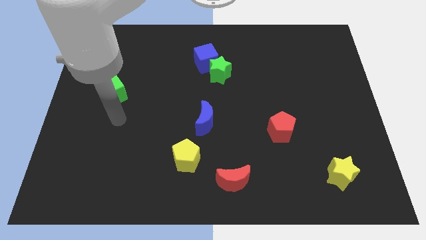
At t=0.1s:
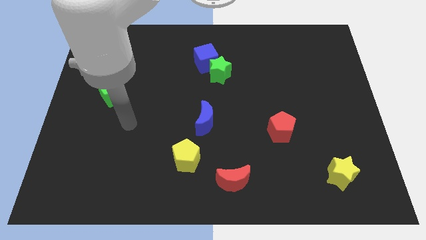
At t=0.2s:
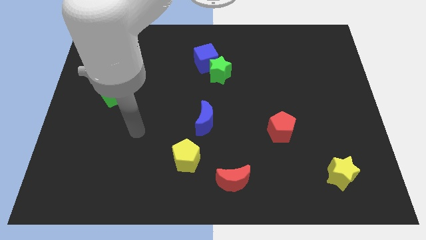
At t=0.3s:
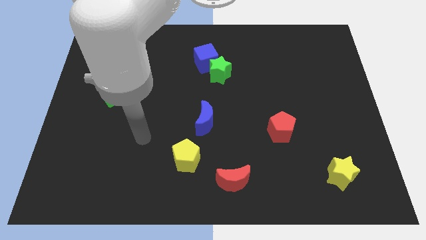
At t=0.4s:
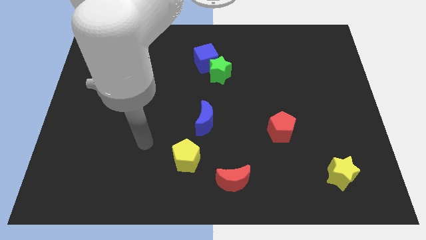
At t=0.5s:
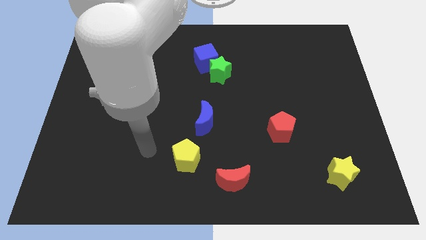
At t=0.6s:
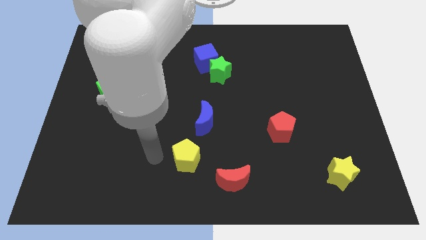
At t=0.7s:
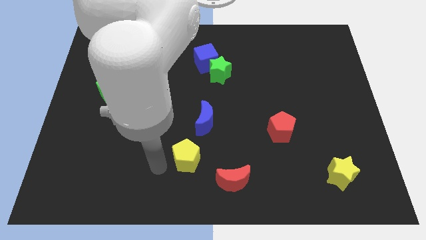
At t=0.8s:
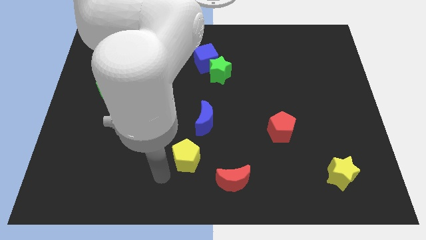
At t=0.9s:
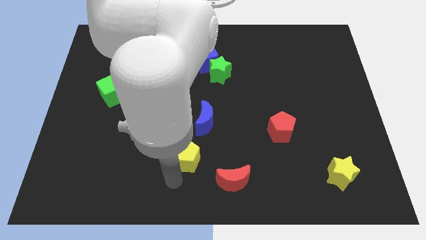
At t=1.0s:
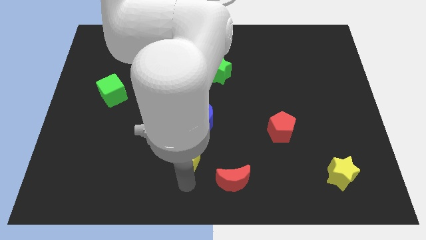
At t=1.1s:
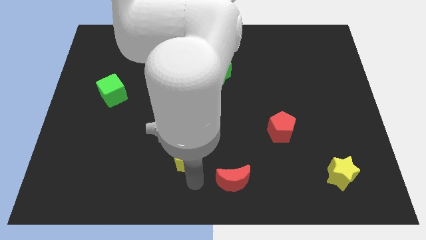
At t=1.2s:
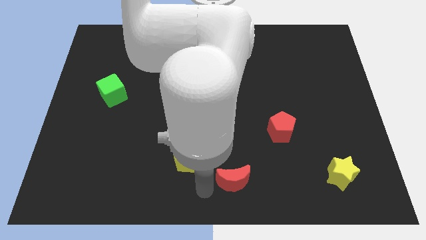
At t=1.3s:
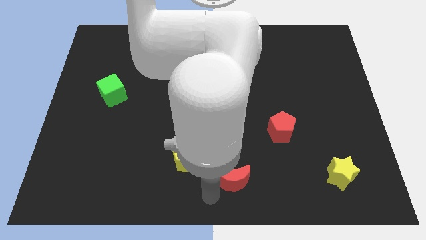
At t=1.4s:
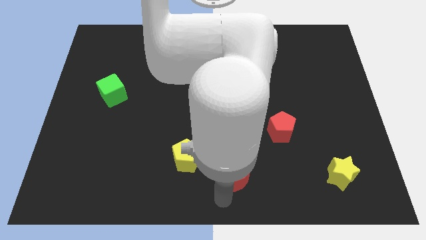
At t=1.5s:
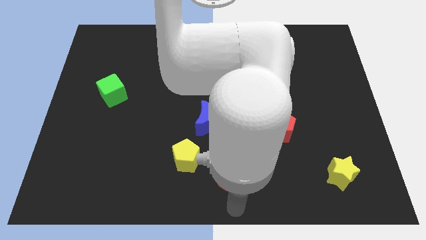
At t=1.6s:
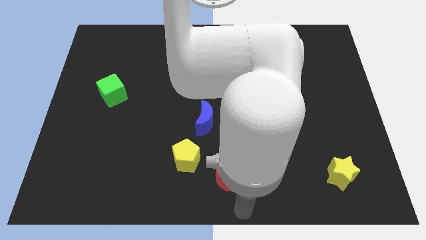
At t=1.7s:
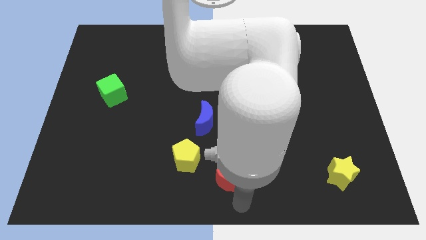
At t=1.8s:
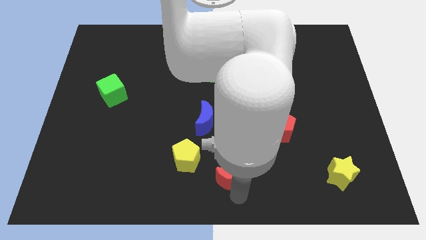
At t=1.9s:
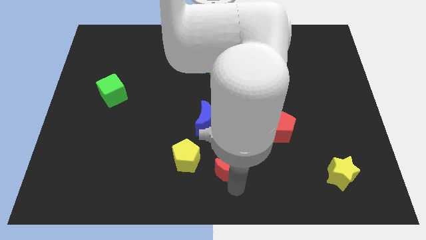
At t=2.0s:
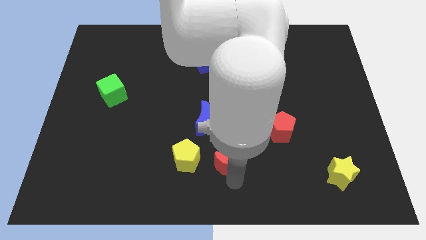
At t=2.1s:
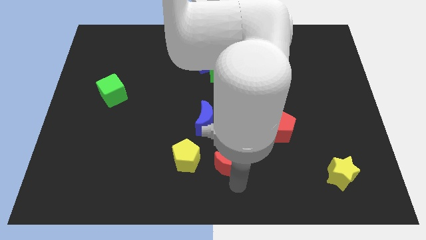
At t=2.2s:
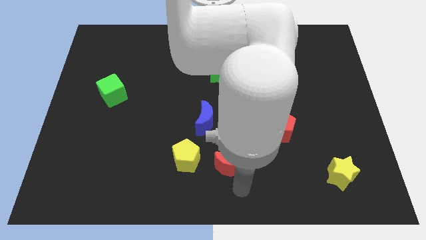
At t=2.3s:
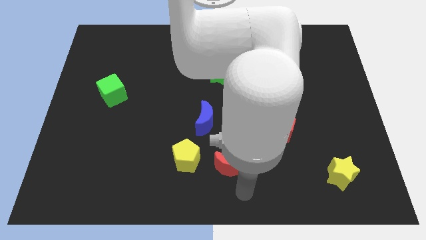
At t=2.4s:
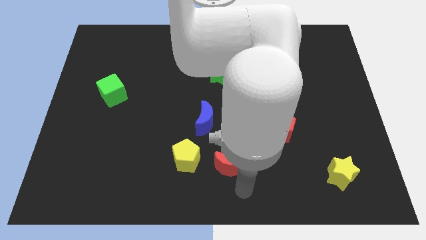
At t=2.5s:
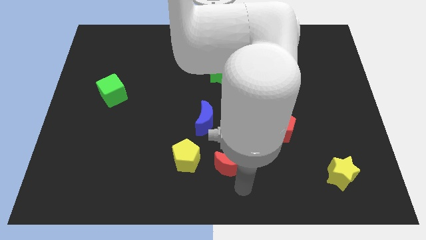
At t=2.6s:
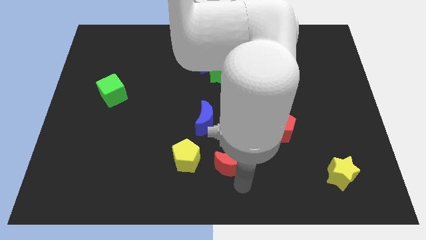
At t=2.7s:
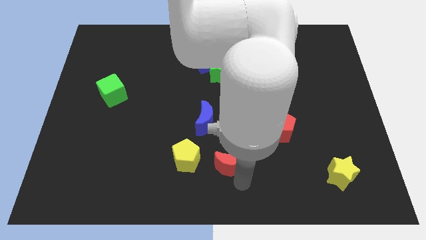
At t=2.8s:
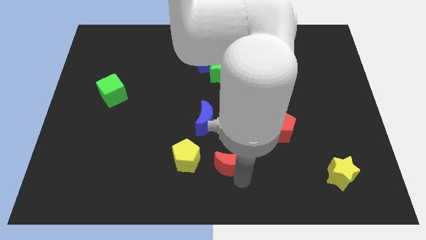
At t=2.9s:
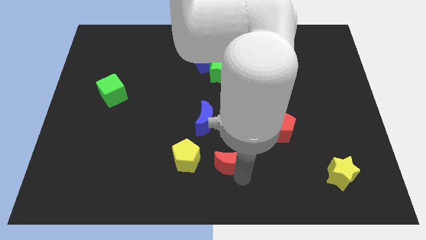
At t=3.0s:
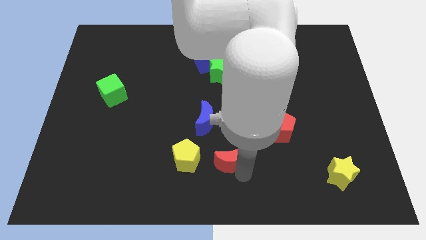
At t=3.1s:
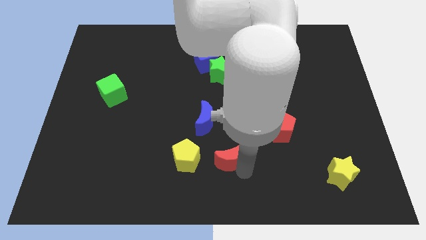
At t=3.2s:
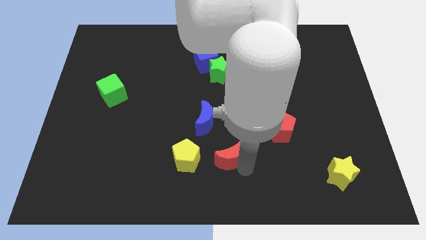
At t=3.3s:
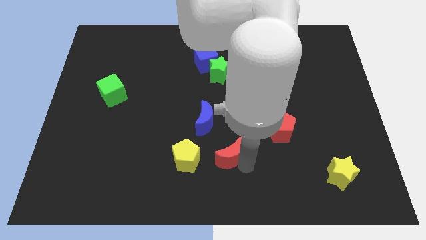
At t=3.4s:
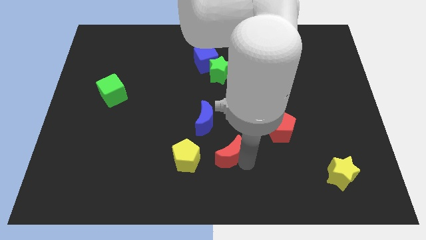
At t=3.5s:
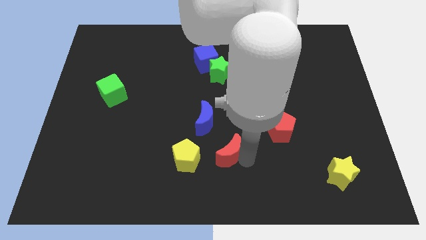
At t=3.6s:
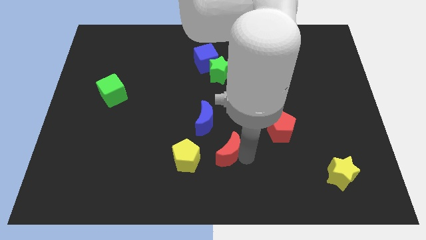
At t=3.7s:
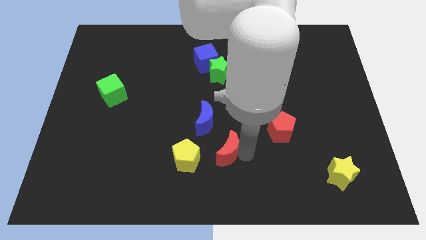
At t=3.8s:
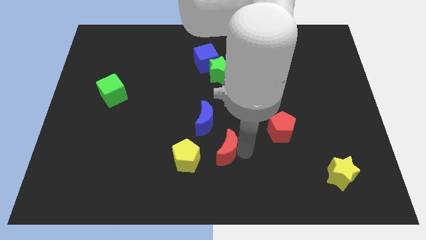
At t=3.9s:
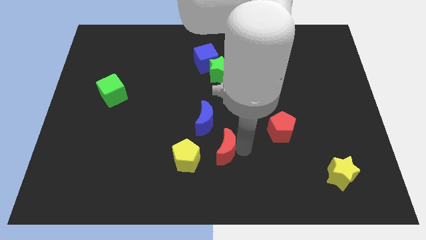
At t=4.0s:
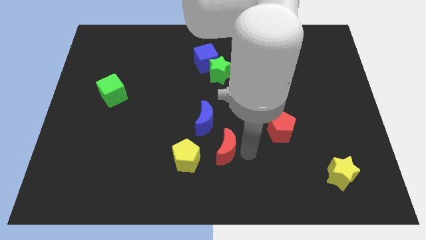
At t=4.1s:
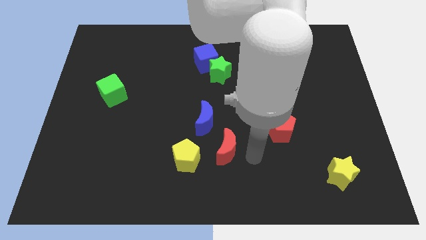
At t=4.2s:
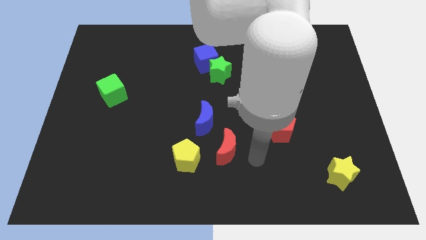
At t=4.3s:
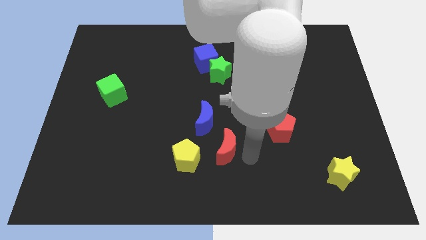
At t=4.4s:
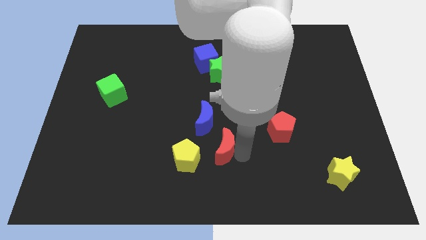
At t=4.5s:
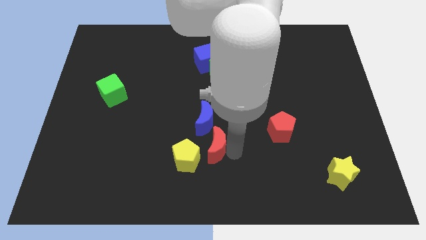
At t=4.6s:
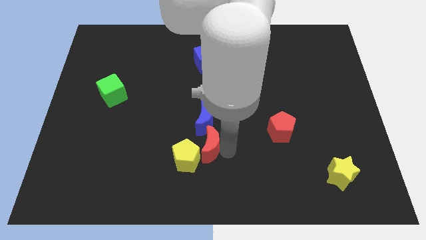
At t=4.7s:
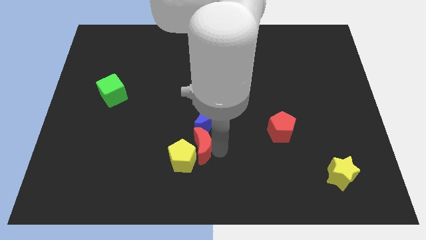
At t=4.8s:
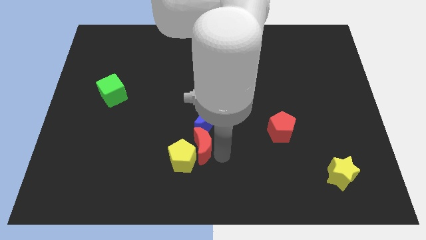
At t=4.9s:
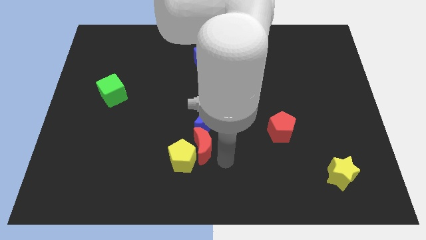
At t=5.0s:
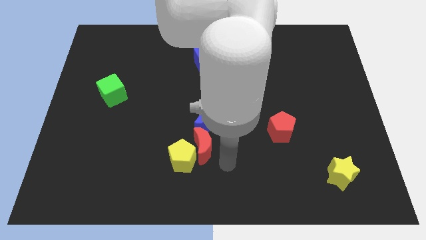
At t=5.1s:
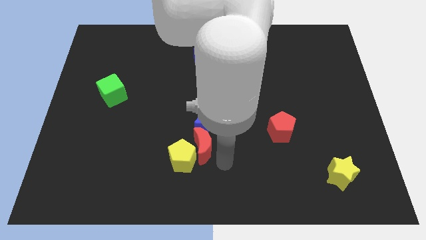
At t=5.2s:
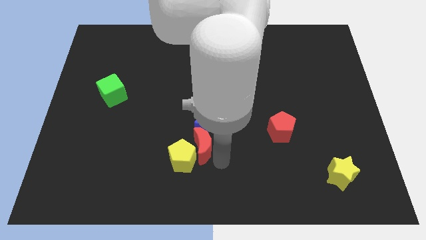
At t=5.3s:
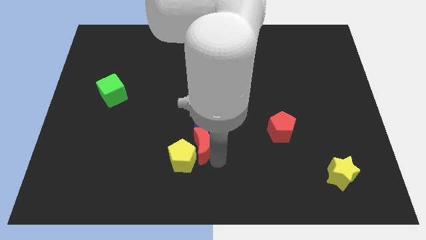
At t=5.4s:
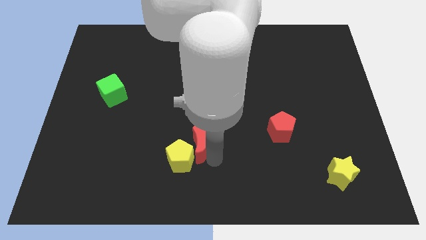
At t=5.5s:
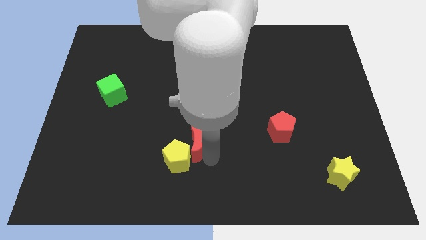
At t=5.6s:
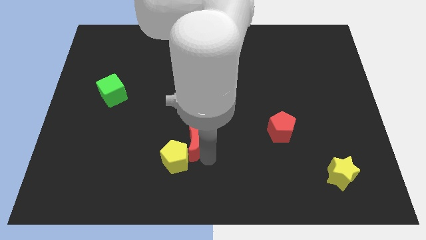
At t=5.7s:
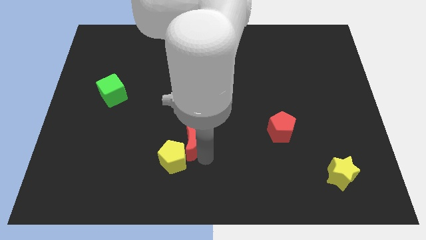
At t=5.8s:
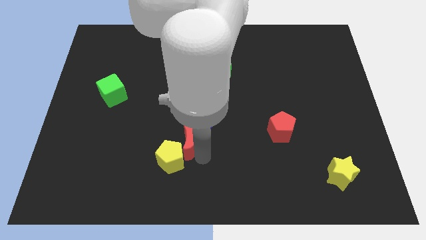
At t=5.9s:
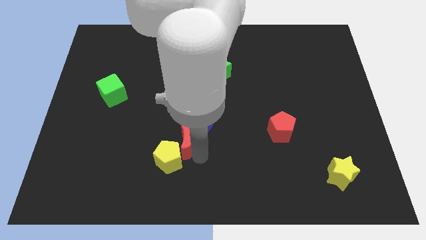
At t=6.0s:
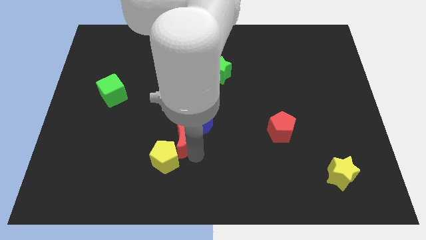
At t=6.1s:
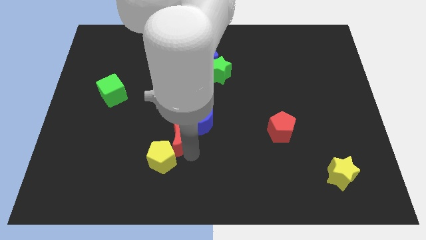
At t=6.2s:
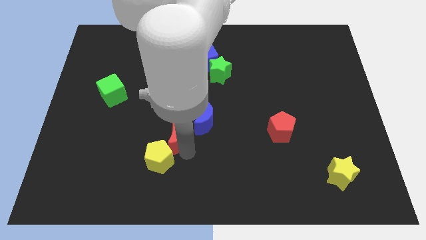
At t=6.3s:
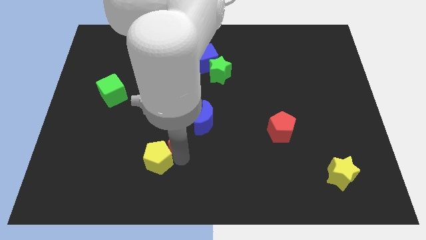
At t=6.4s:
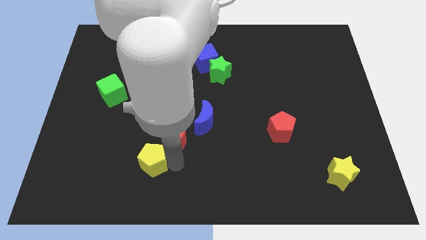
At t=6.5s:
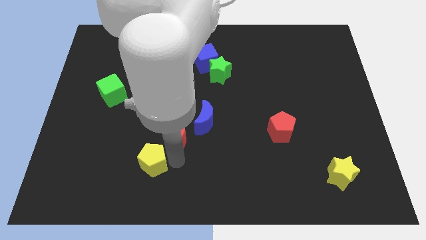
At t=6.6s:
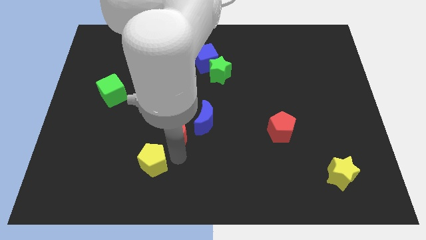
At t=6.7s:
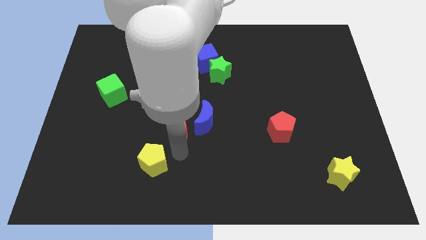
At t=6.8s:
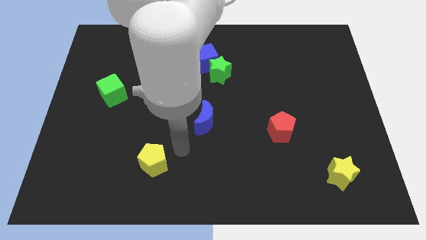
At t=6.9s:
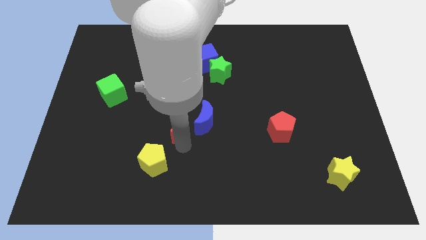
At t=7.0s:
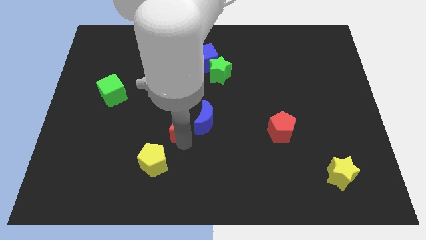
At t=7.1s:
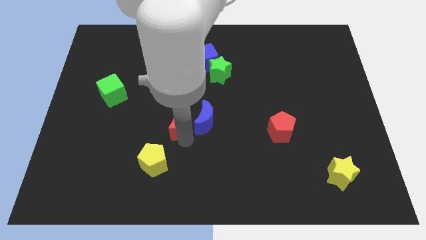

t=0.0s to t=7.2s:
move the red moon to the top left of the blue moon
